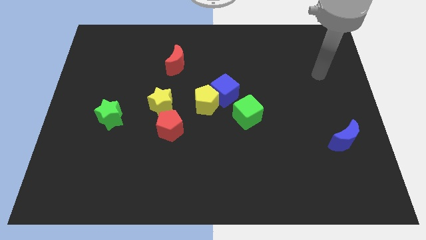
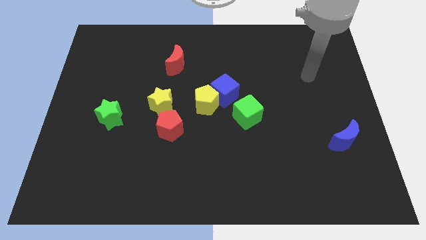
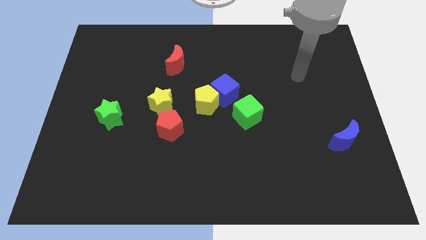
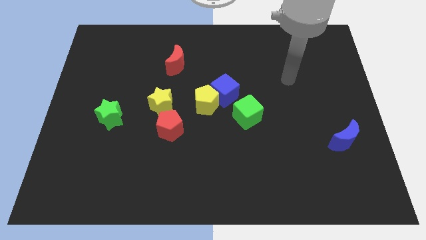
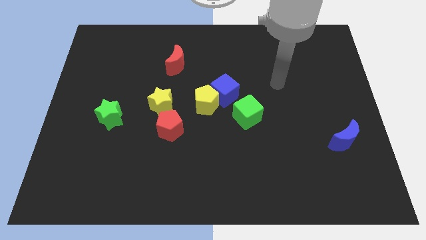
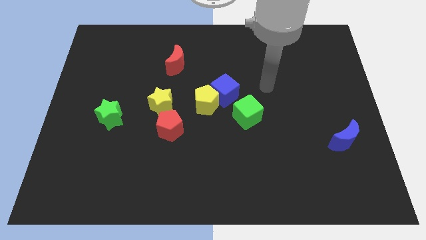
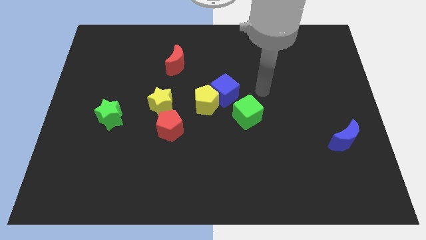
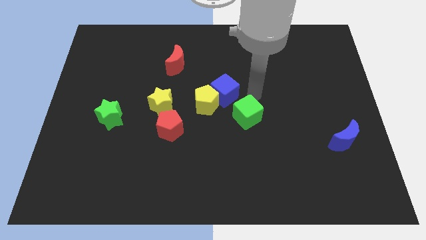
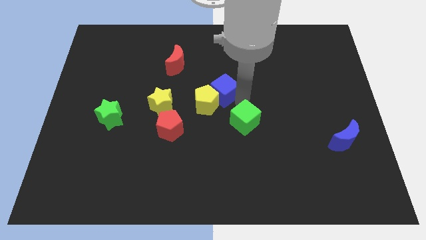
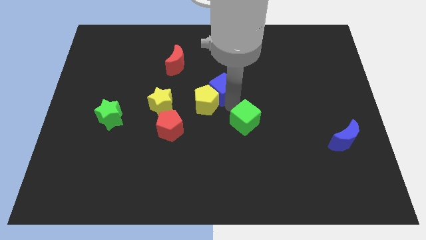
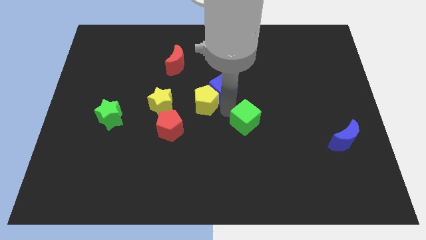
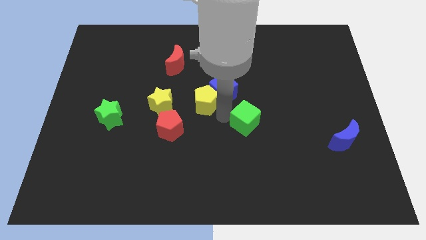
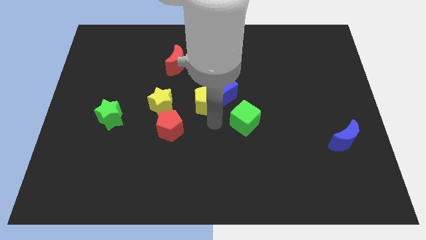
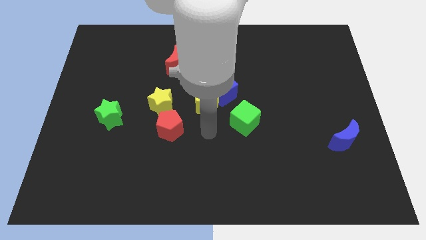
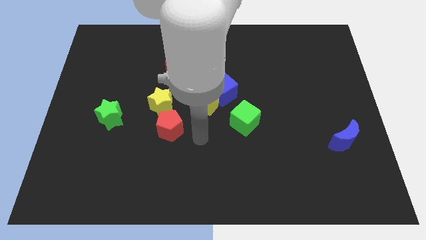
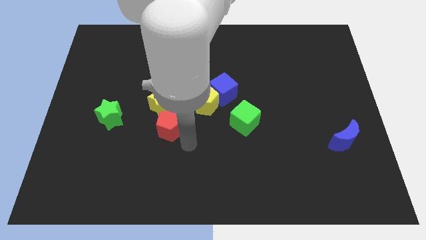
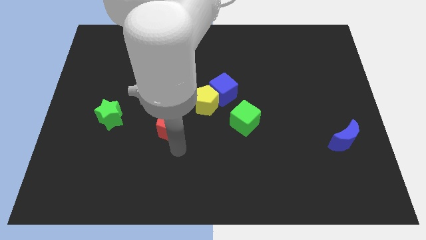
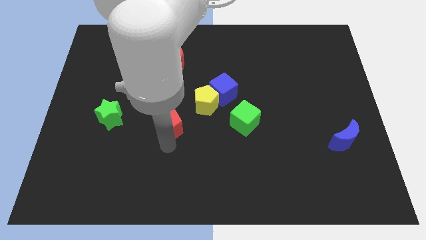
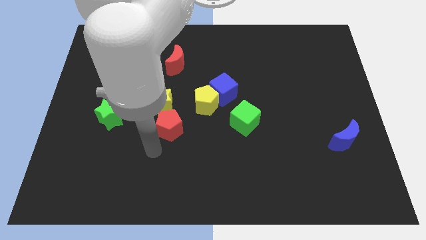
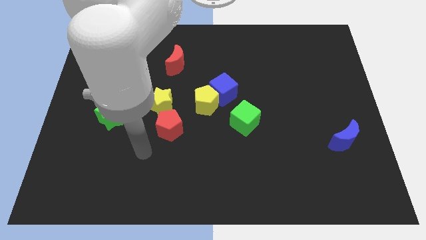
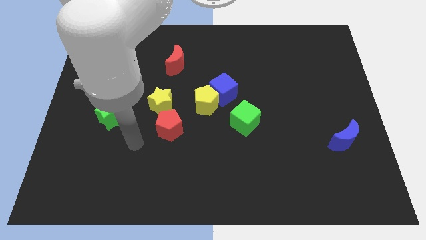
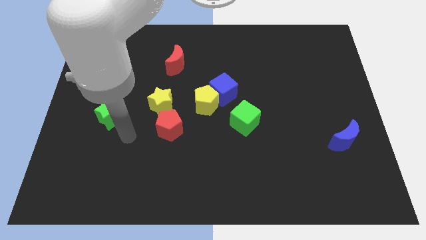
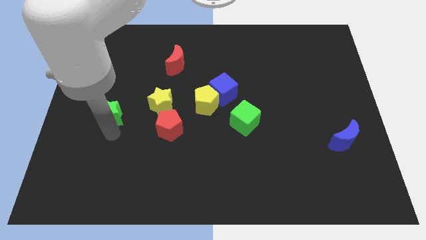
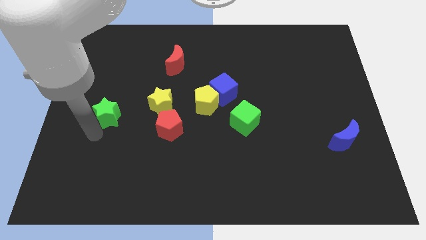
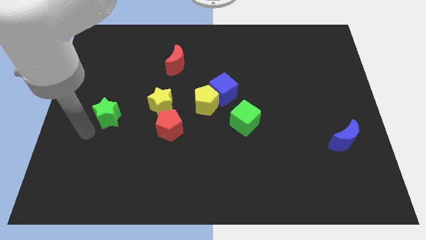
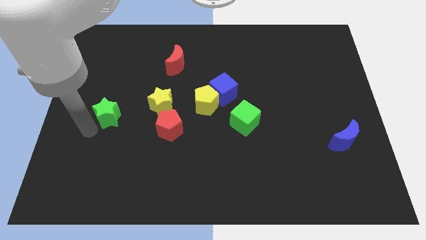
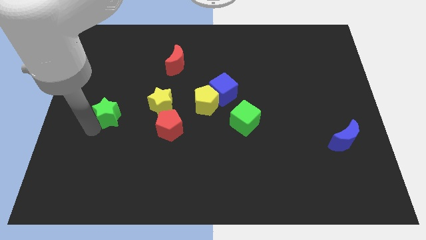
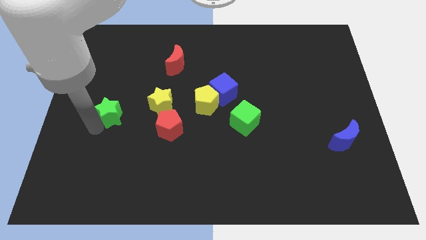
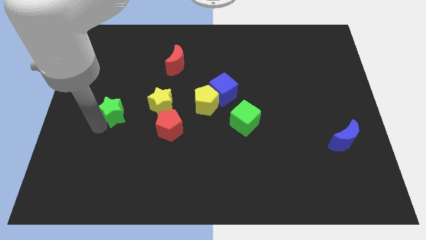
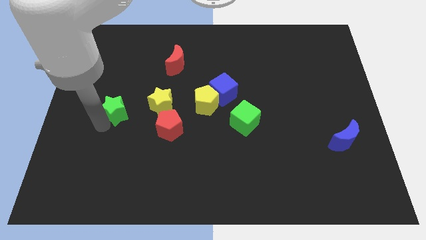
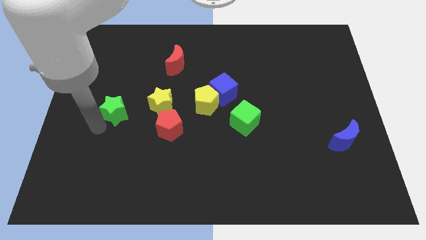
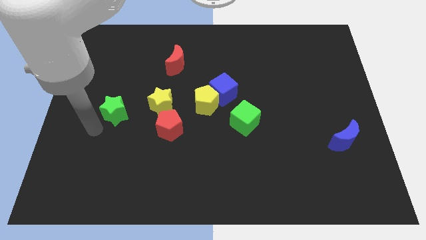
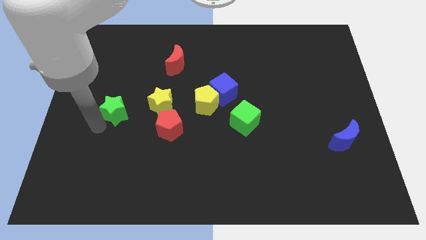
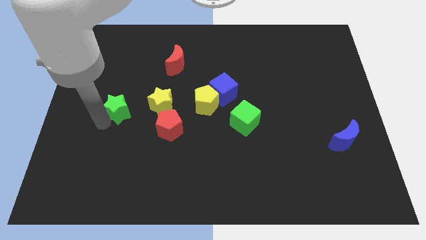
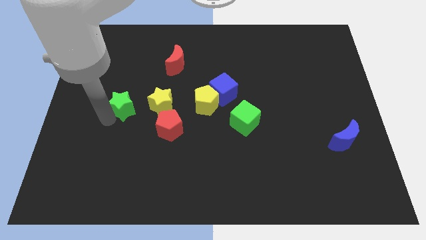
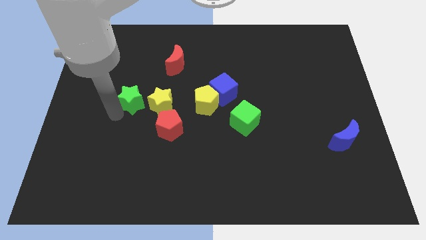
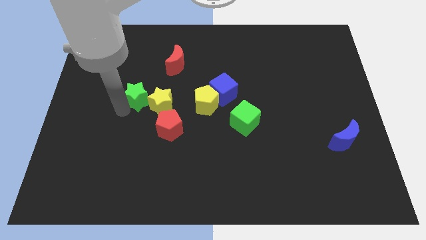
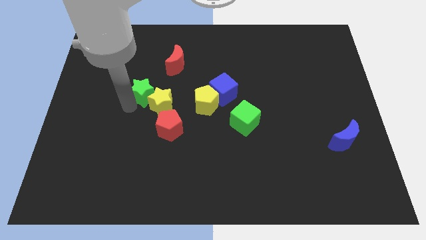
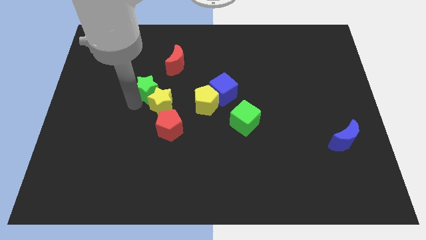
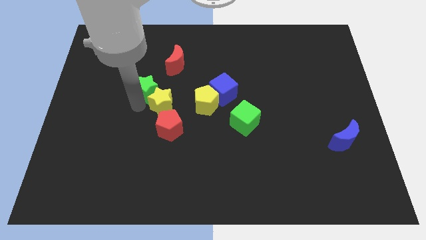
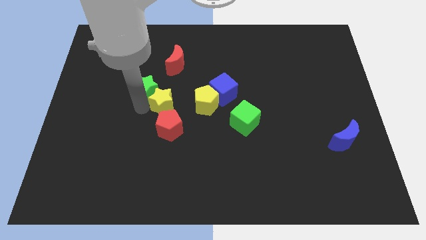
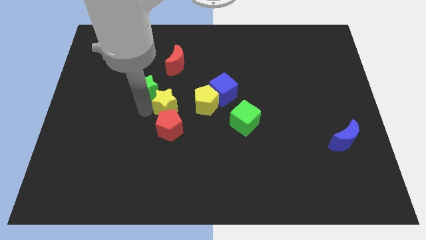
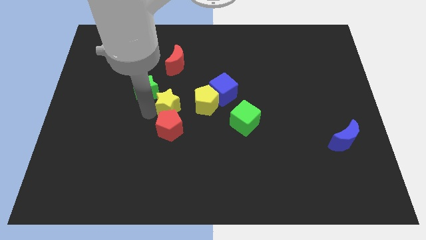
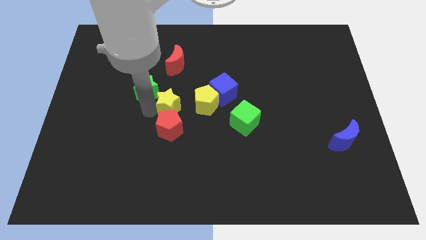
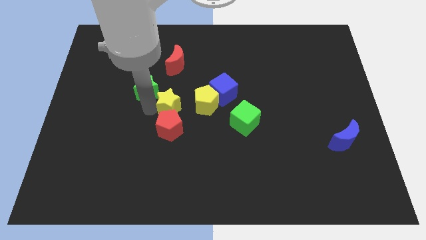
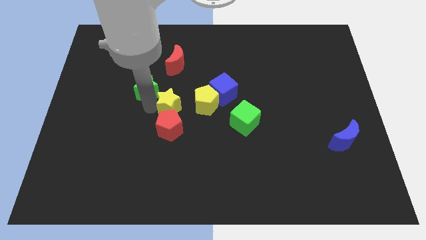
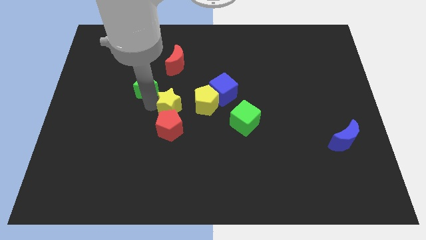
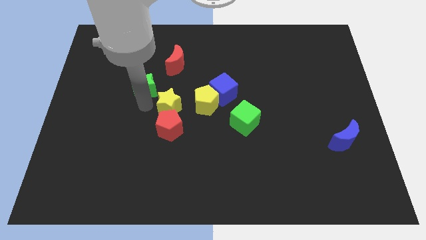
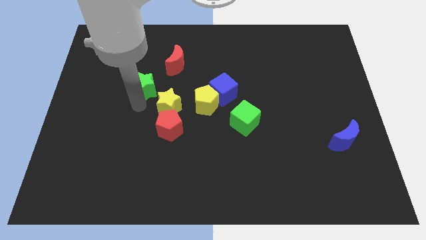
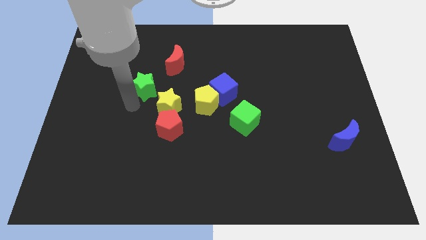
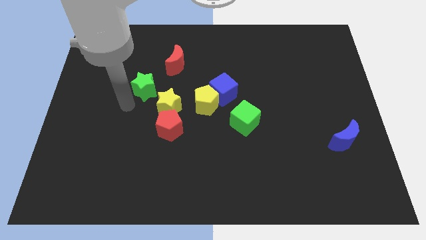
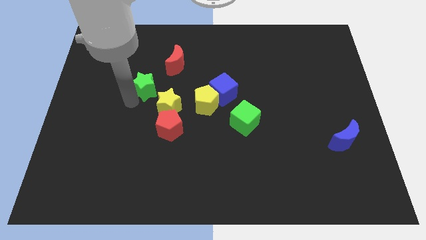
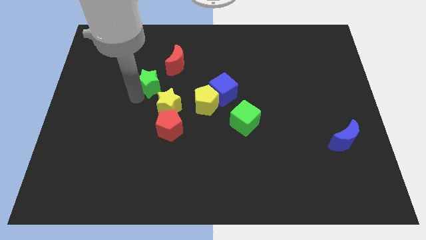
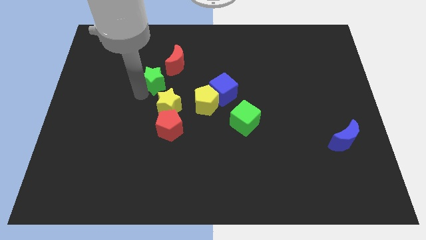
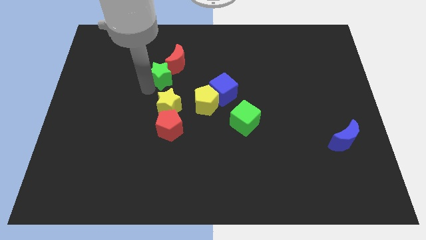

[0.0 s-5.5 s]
slide the green star to the red moon

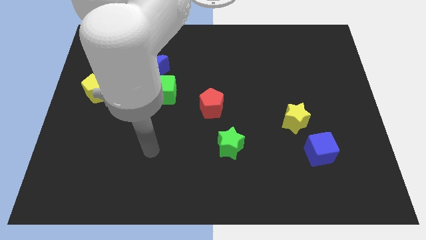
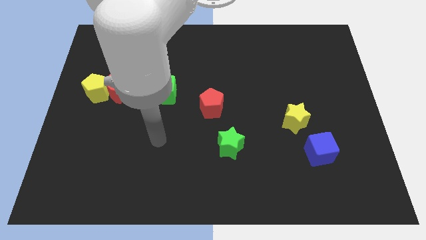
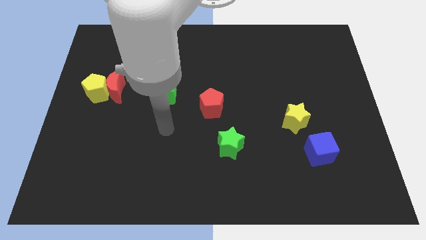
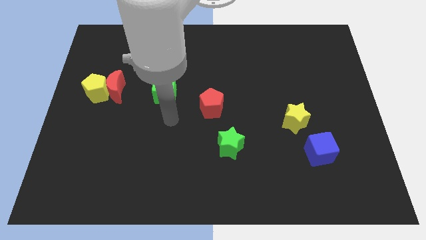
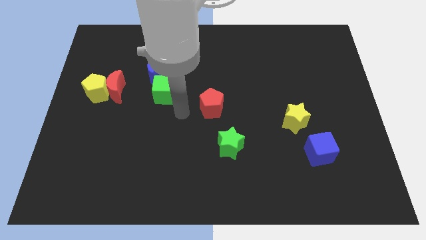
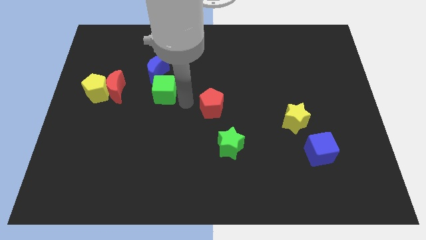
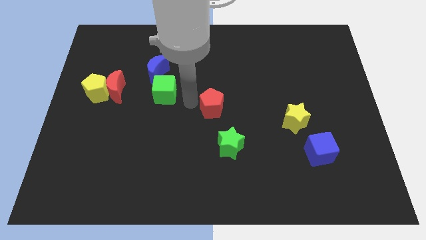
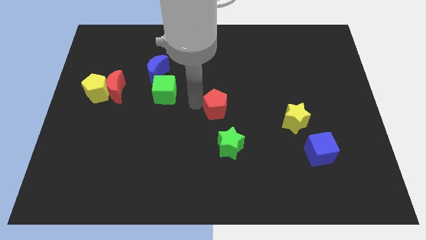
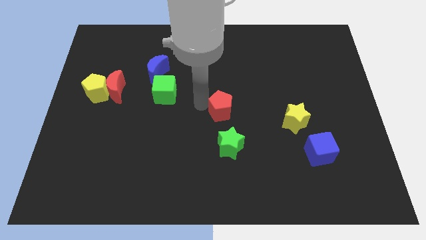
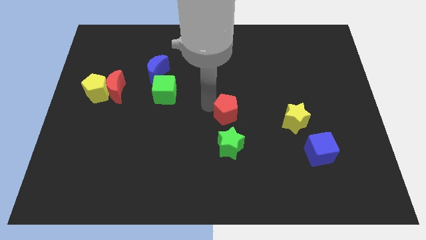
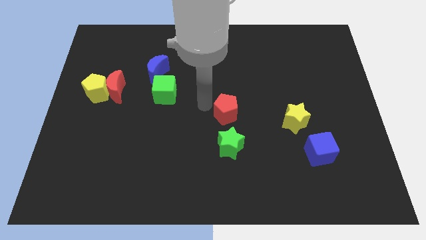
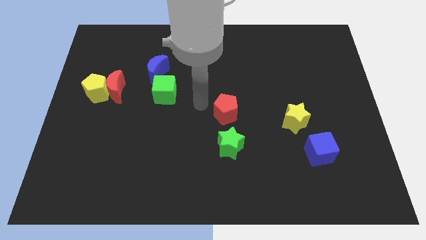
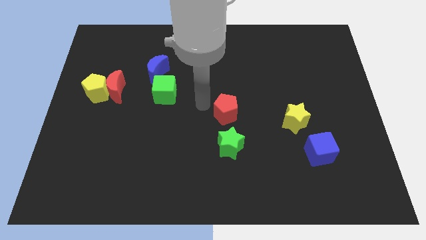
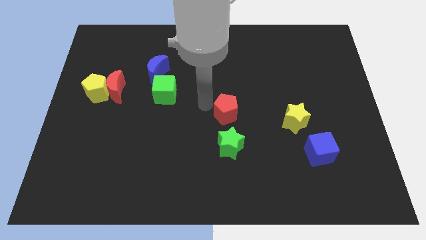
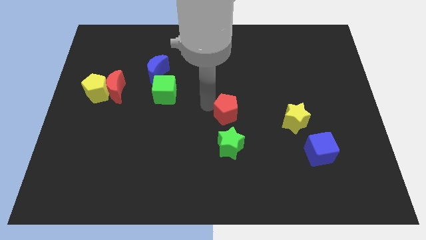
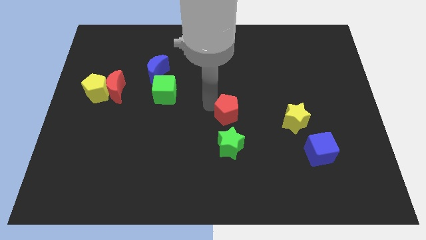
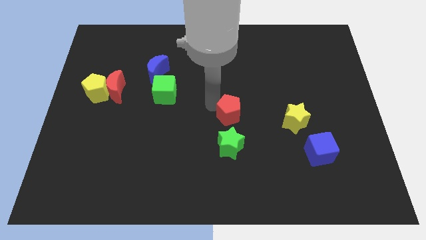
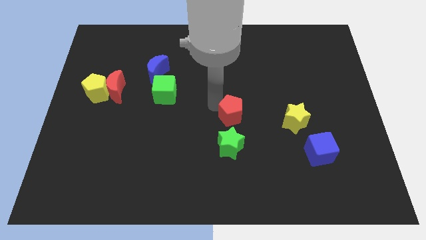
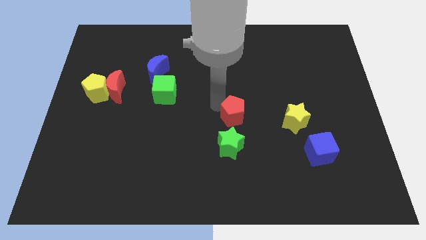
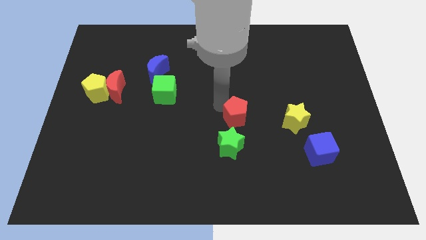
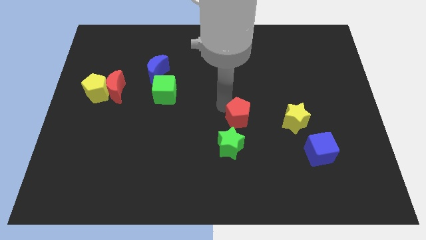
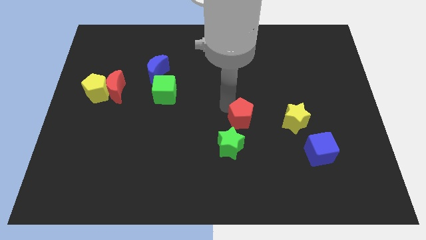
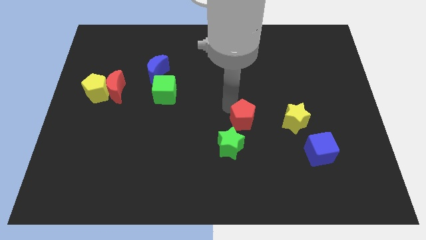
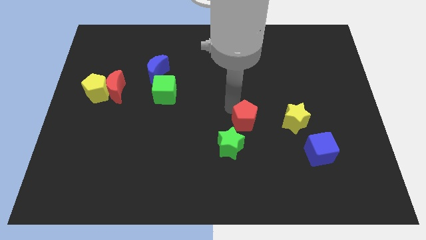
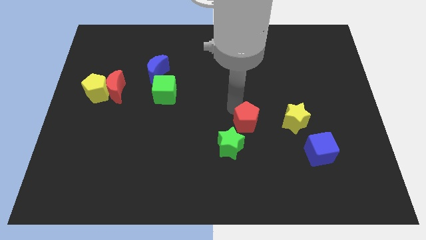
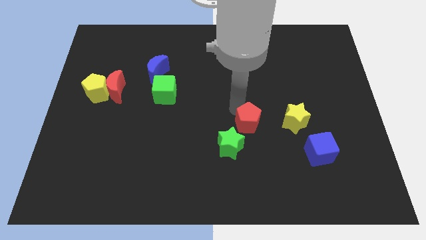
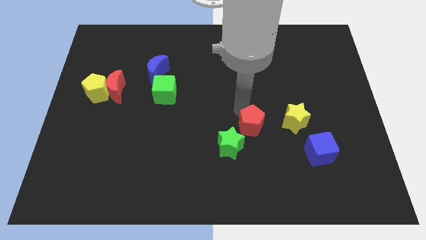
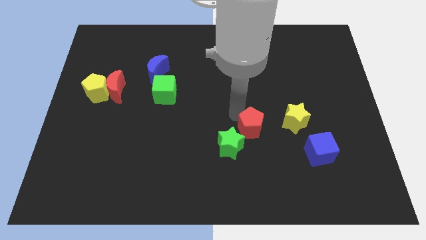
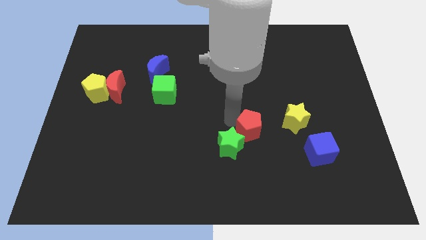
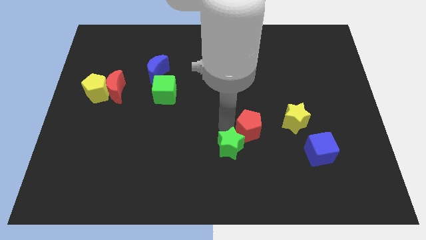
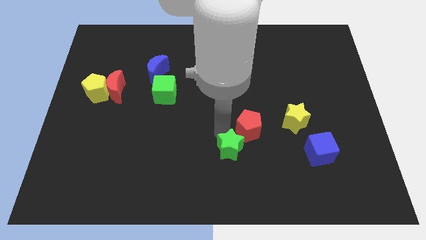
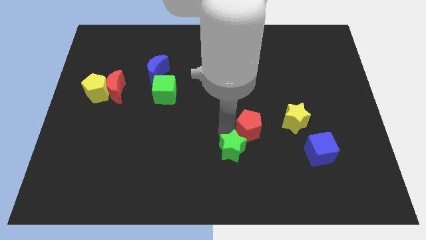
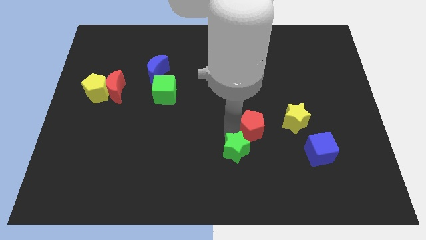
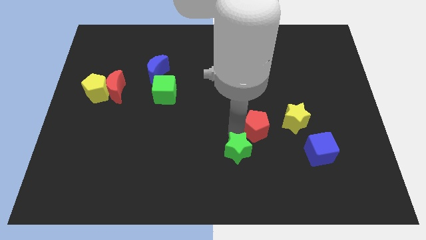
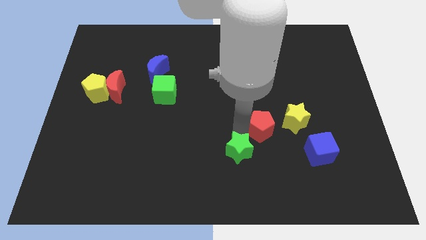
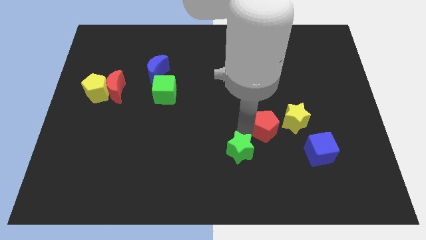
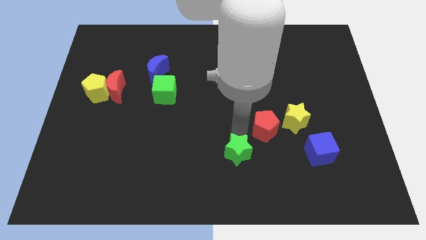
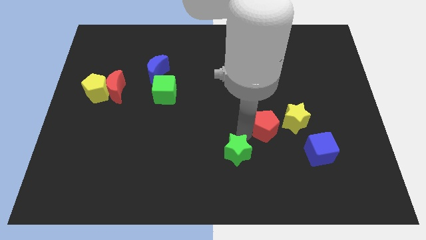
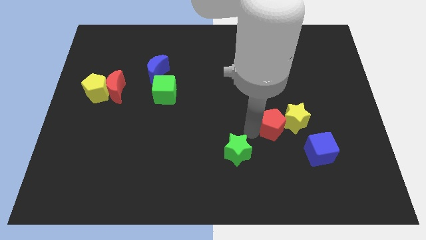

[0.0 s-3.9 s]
put the red pentagon close to the yellow star
